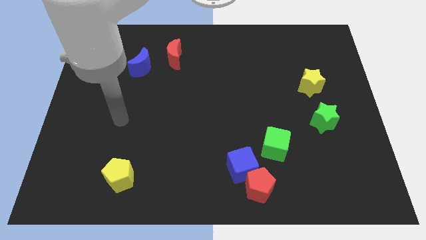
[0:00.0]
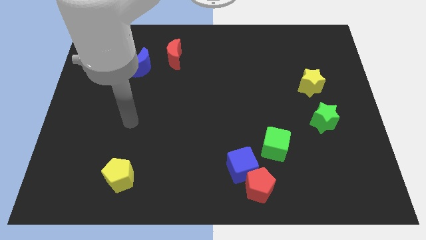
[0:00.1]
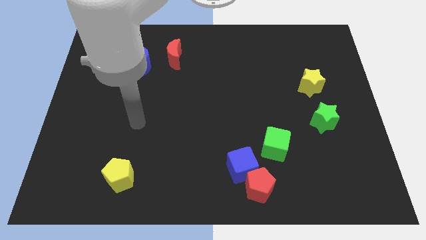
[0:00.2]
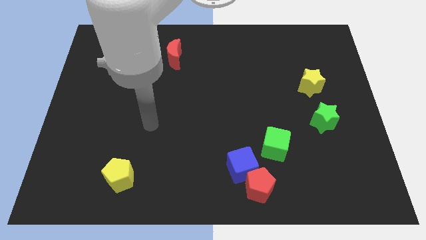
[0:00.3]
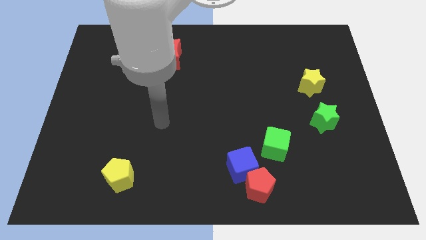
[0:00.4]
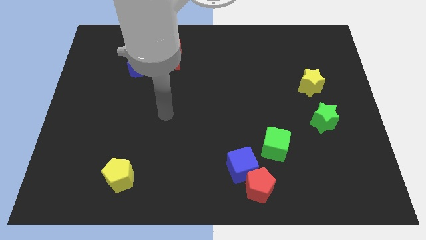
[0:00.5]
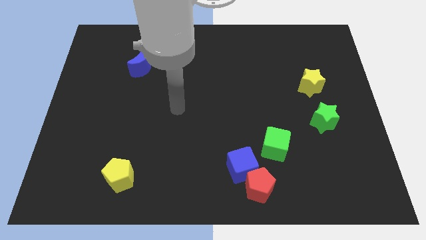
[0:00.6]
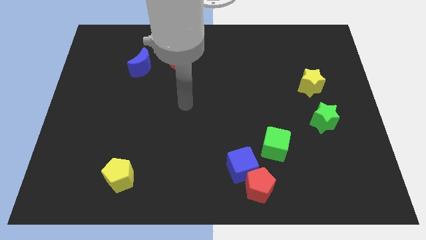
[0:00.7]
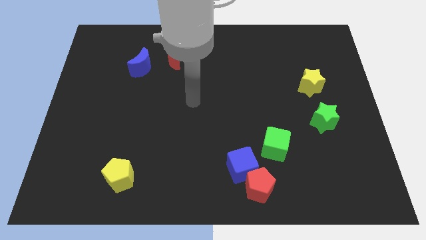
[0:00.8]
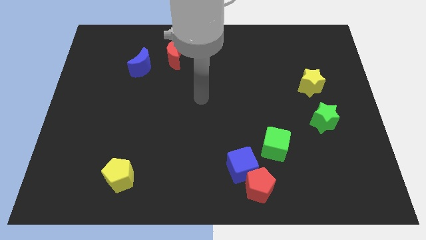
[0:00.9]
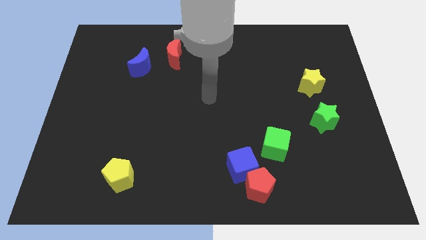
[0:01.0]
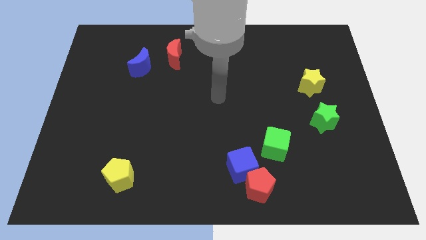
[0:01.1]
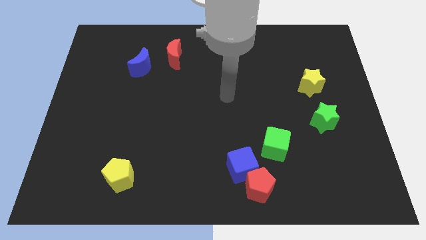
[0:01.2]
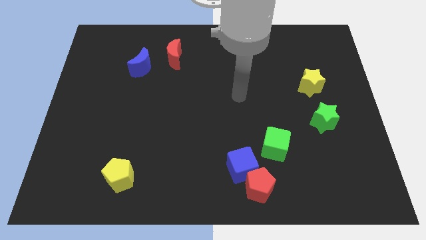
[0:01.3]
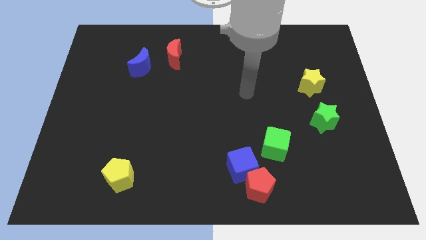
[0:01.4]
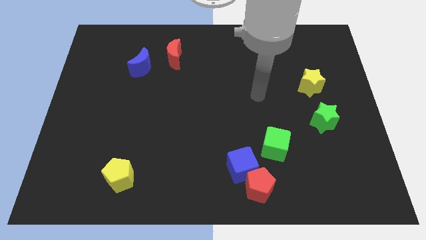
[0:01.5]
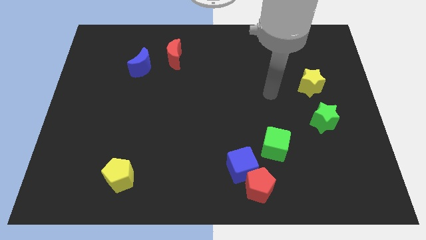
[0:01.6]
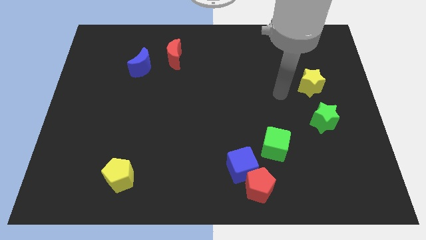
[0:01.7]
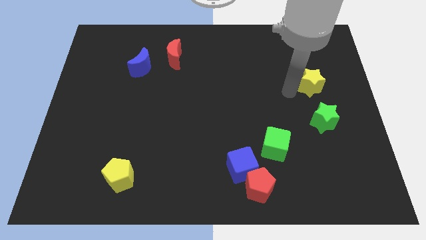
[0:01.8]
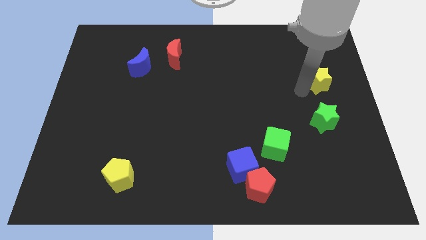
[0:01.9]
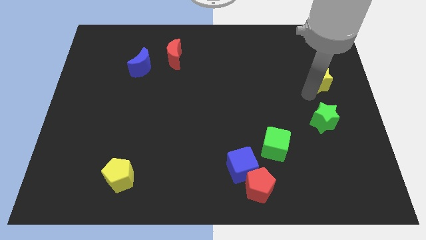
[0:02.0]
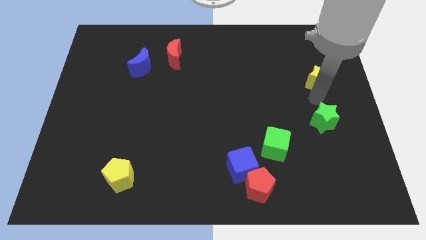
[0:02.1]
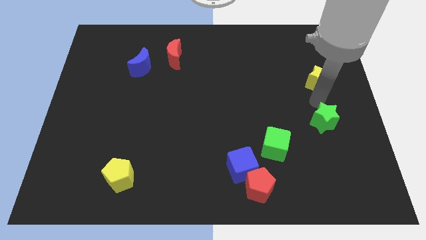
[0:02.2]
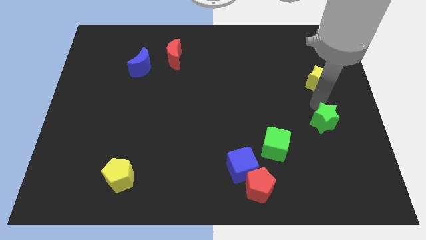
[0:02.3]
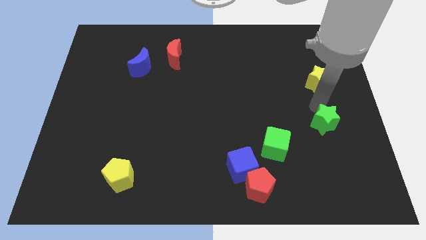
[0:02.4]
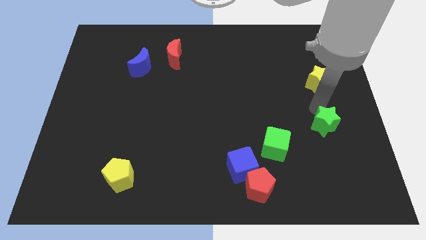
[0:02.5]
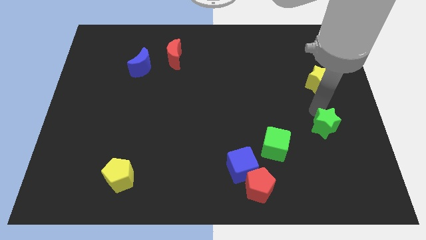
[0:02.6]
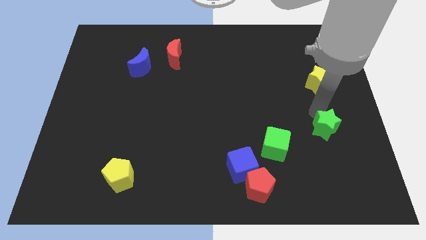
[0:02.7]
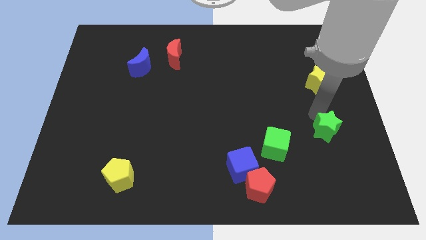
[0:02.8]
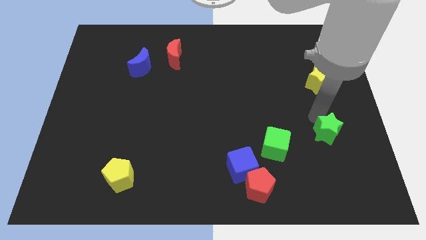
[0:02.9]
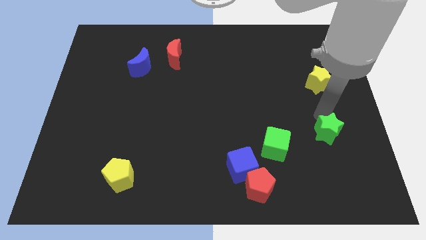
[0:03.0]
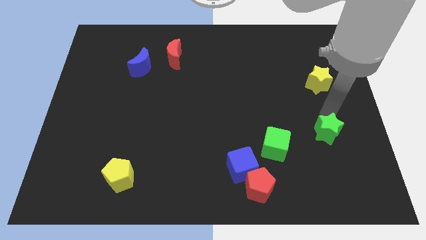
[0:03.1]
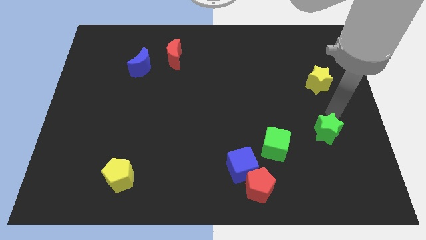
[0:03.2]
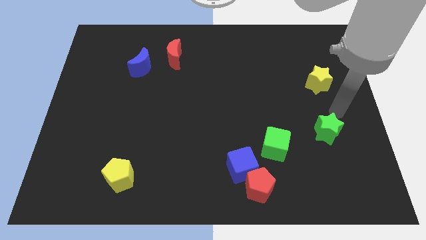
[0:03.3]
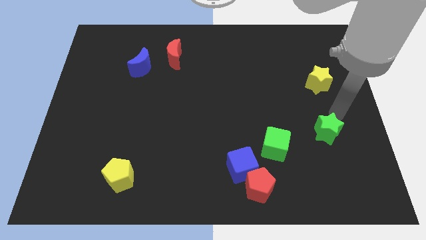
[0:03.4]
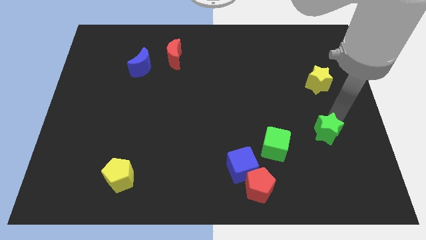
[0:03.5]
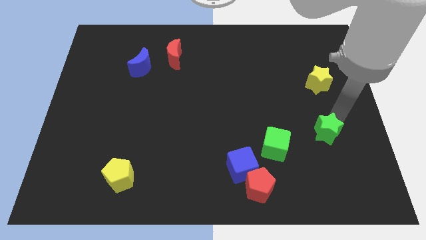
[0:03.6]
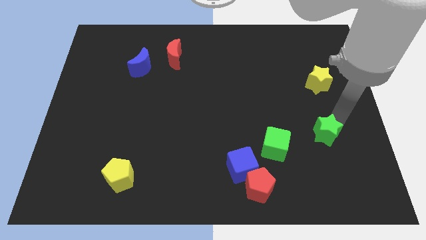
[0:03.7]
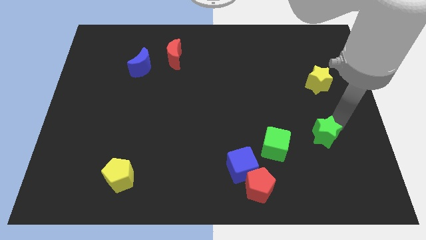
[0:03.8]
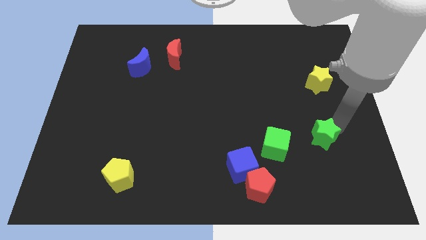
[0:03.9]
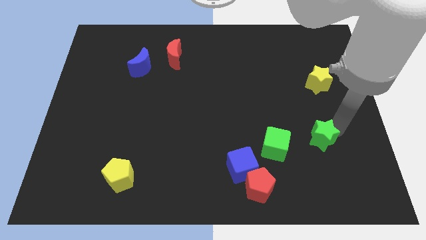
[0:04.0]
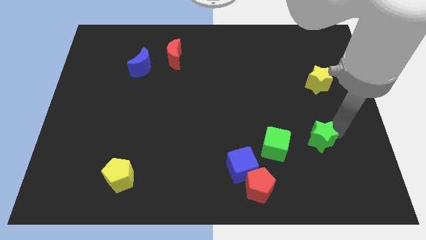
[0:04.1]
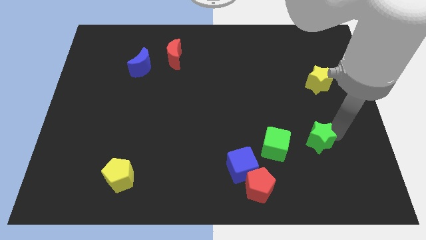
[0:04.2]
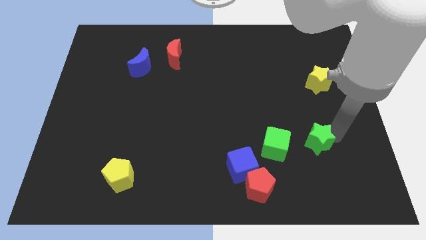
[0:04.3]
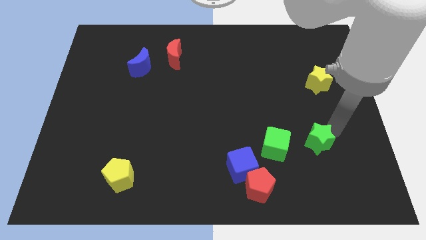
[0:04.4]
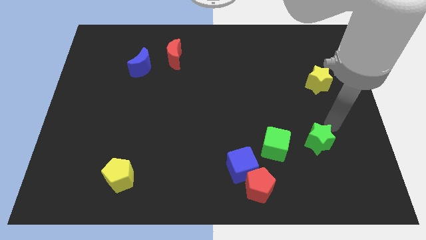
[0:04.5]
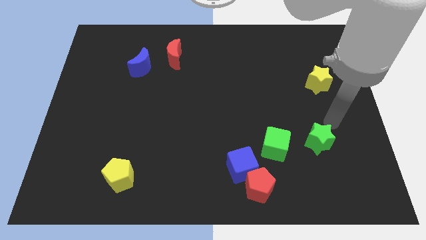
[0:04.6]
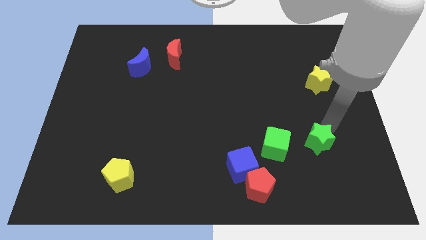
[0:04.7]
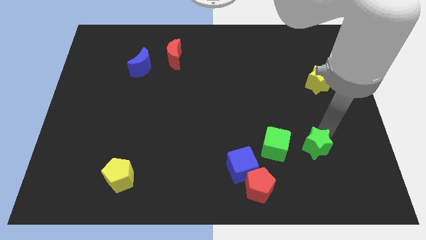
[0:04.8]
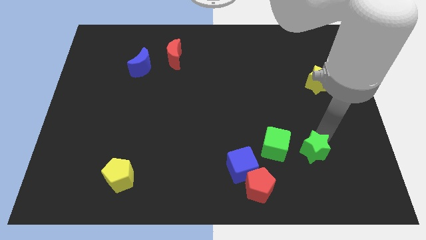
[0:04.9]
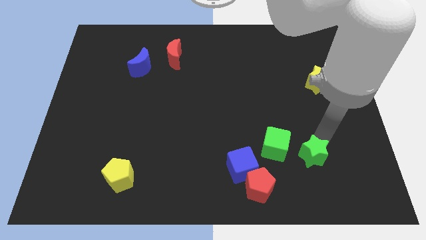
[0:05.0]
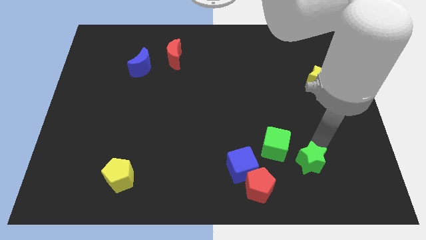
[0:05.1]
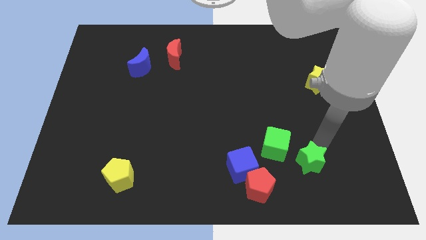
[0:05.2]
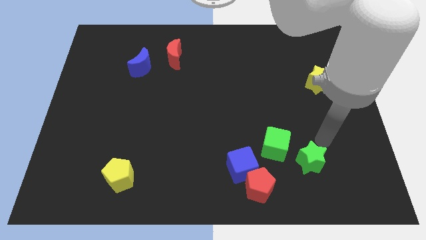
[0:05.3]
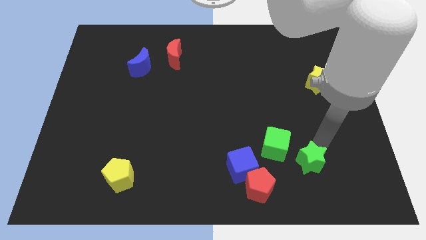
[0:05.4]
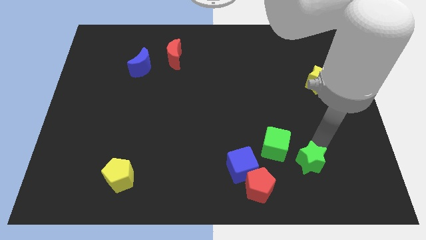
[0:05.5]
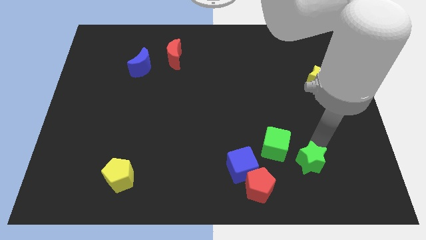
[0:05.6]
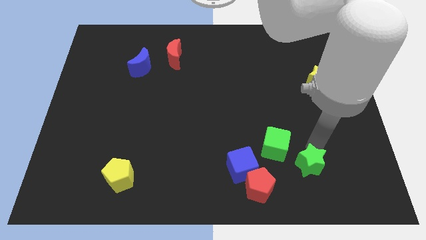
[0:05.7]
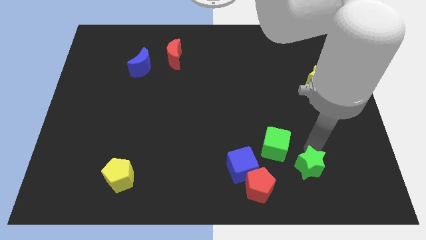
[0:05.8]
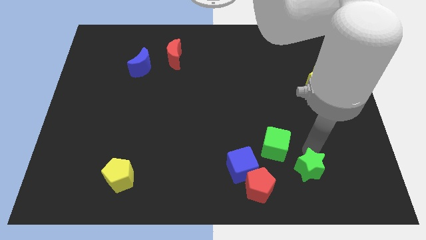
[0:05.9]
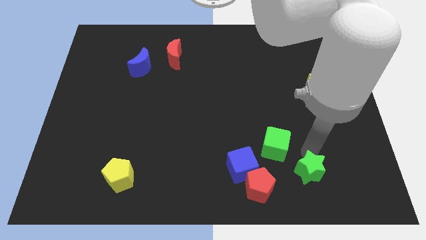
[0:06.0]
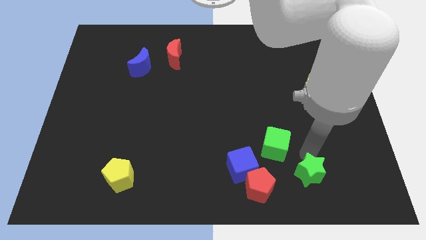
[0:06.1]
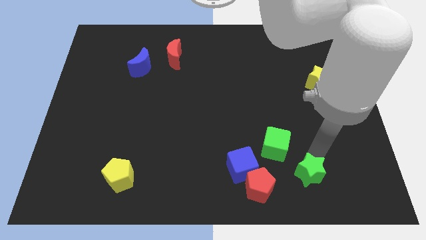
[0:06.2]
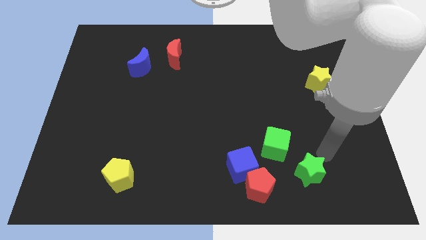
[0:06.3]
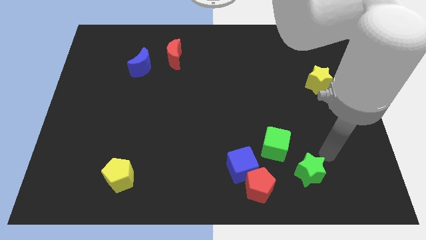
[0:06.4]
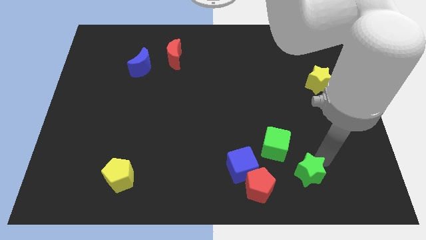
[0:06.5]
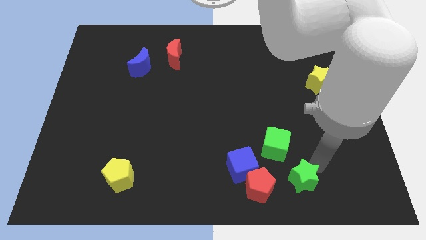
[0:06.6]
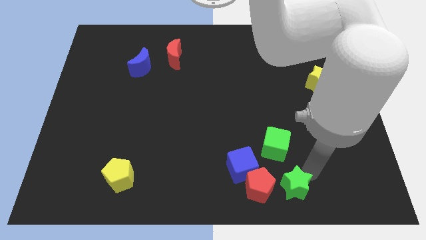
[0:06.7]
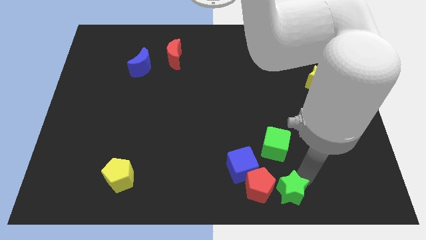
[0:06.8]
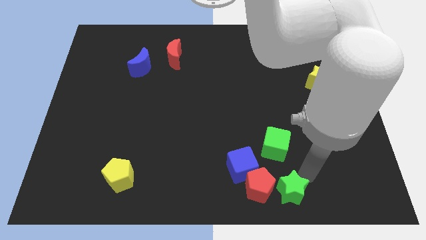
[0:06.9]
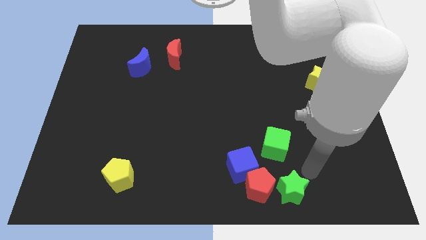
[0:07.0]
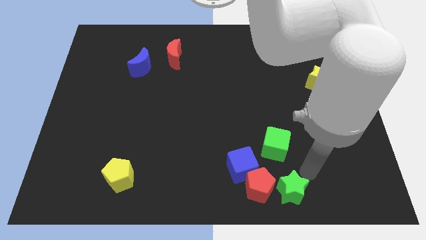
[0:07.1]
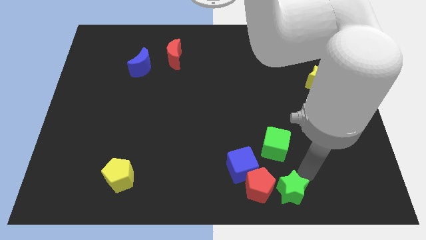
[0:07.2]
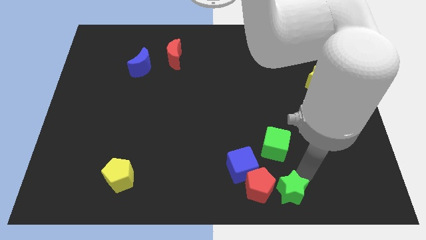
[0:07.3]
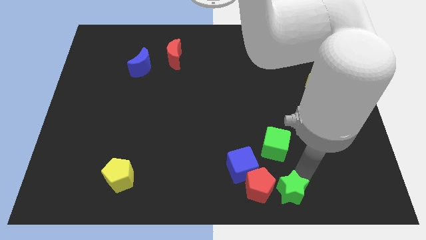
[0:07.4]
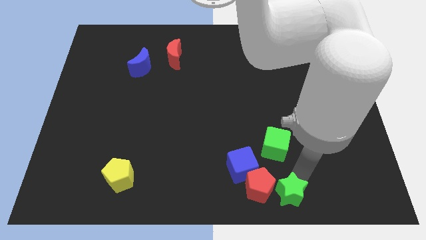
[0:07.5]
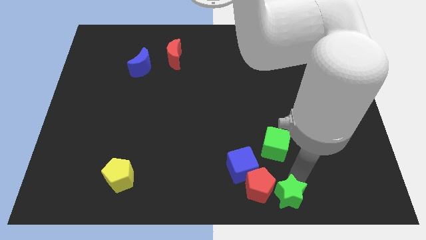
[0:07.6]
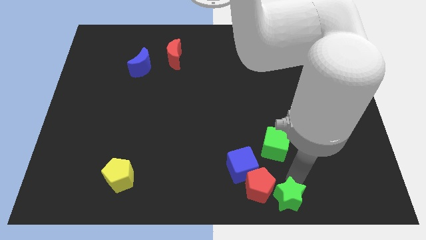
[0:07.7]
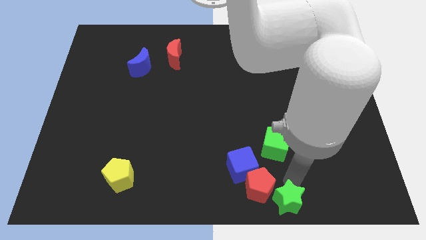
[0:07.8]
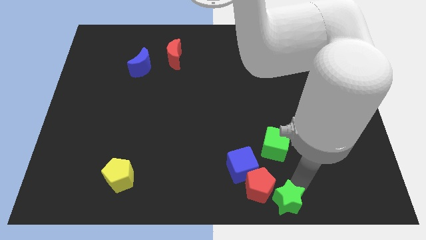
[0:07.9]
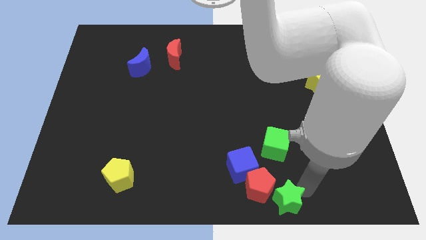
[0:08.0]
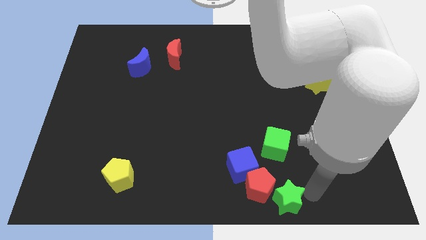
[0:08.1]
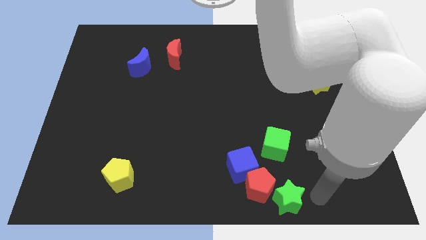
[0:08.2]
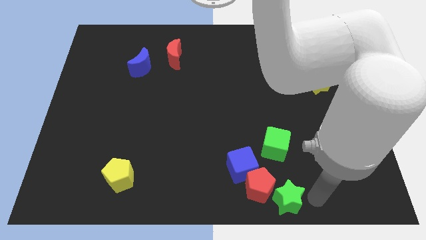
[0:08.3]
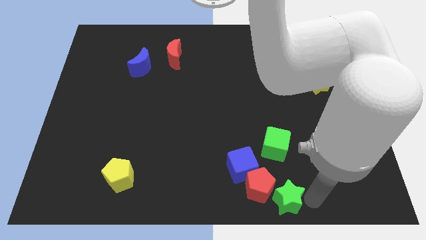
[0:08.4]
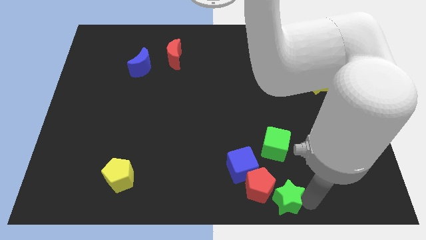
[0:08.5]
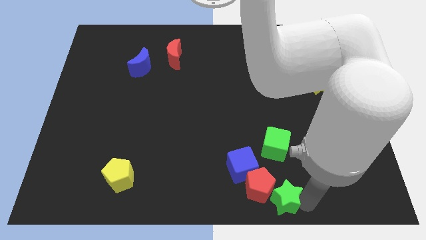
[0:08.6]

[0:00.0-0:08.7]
put the green star to the bottom
